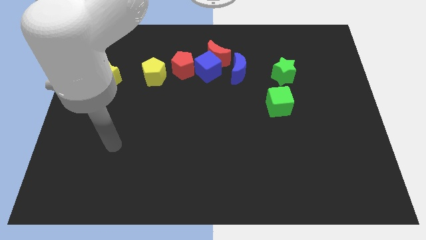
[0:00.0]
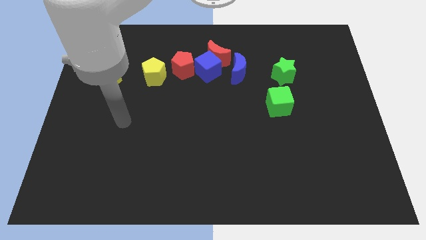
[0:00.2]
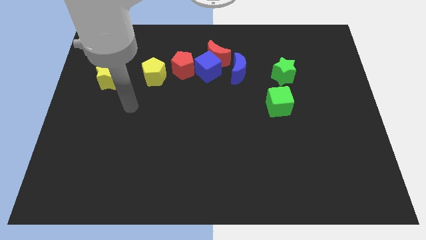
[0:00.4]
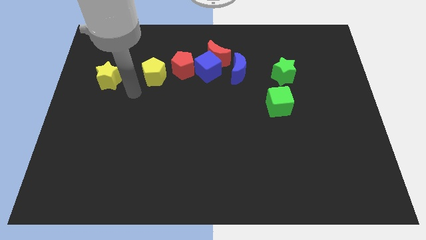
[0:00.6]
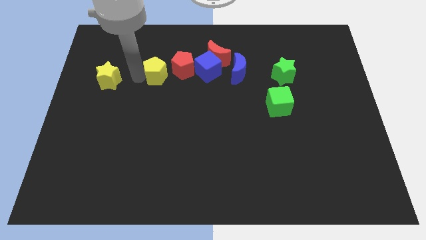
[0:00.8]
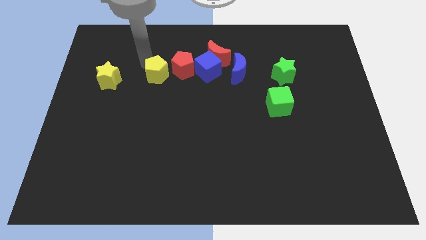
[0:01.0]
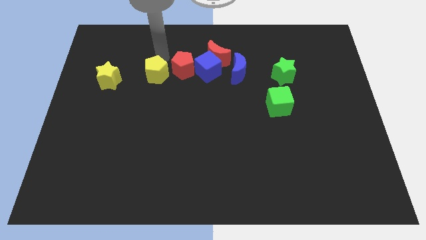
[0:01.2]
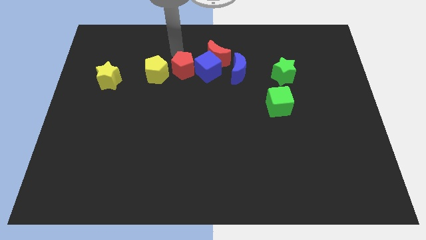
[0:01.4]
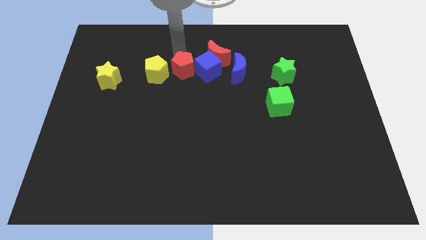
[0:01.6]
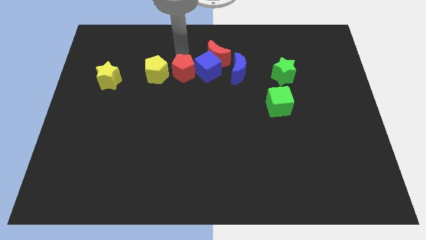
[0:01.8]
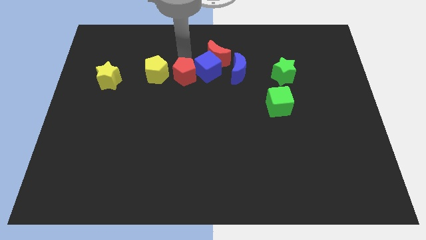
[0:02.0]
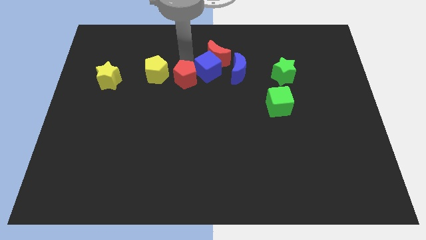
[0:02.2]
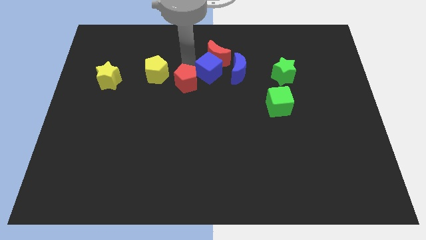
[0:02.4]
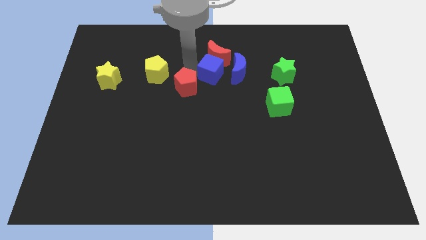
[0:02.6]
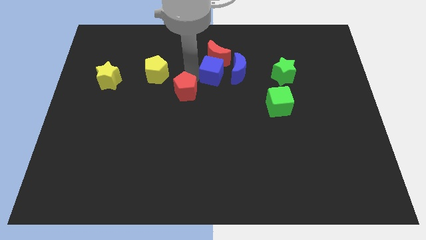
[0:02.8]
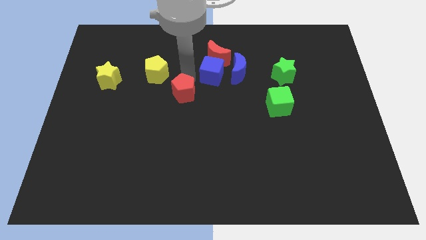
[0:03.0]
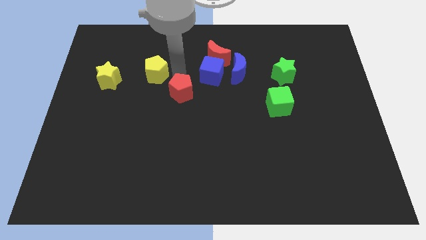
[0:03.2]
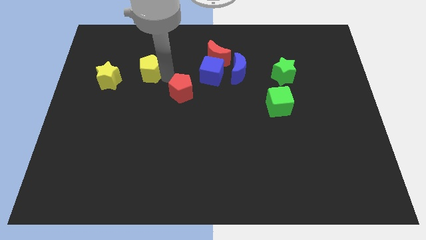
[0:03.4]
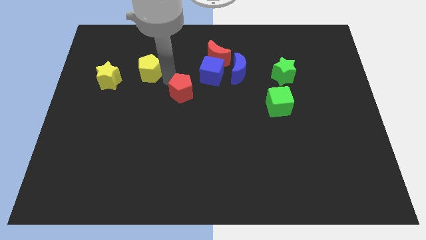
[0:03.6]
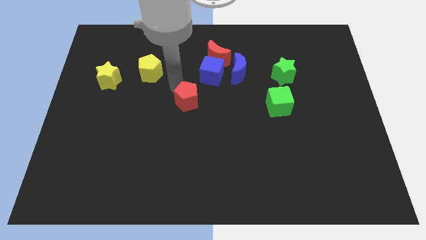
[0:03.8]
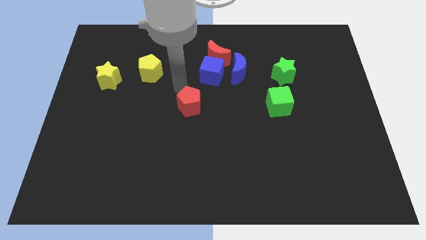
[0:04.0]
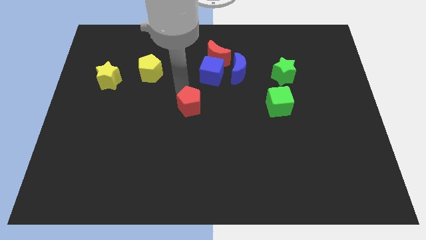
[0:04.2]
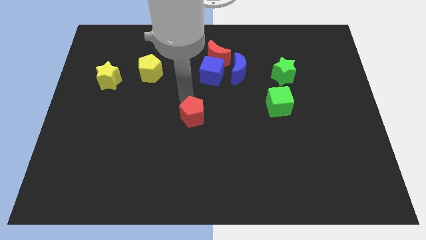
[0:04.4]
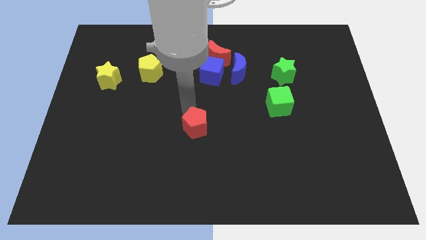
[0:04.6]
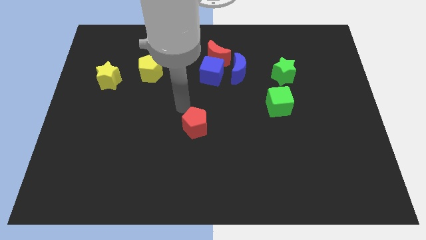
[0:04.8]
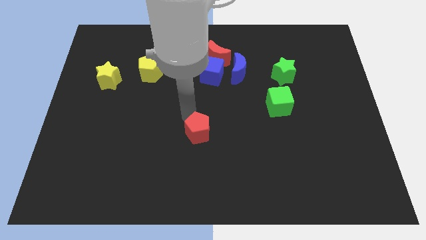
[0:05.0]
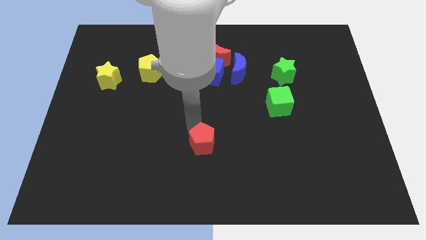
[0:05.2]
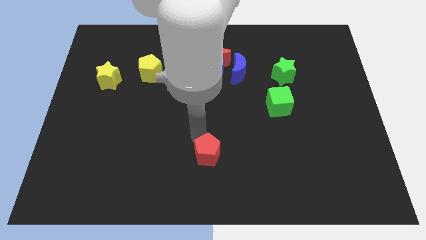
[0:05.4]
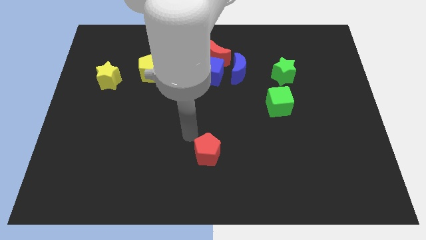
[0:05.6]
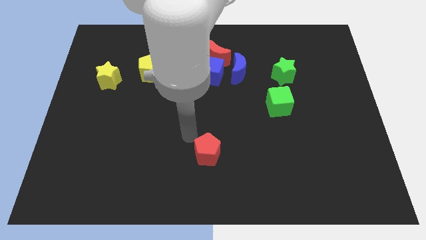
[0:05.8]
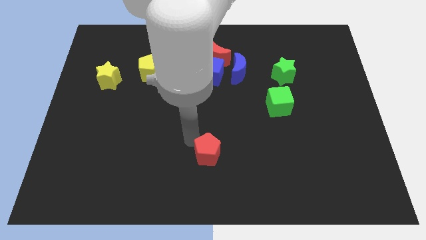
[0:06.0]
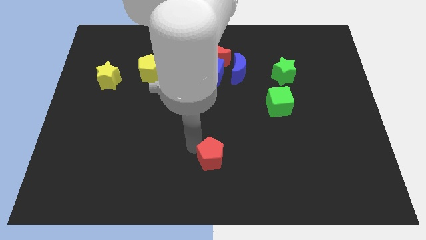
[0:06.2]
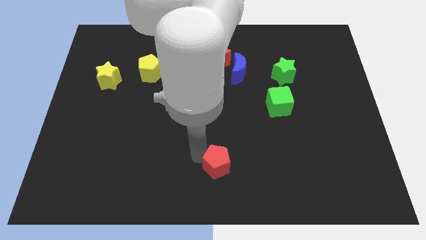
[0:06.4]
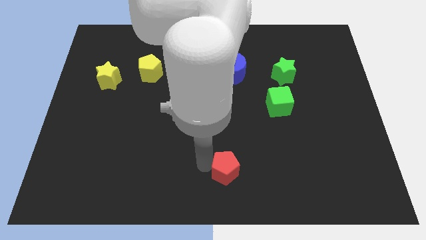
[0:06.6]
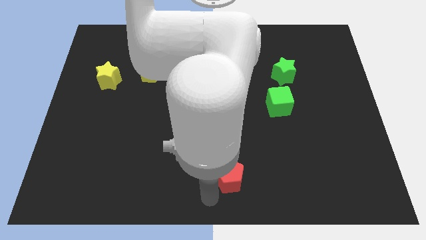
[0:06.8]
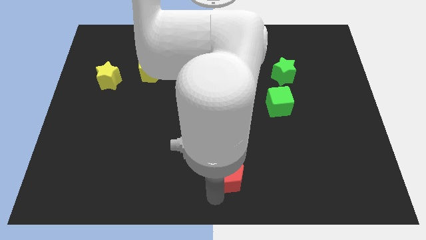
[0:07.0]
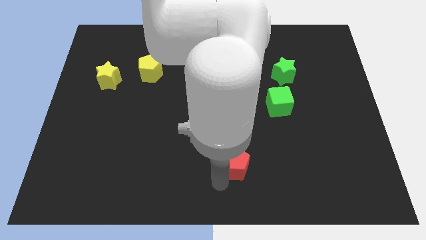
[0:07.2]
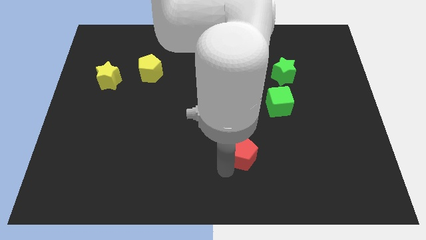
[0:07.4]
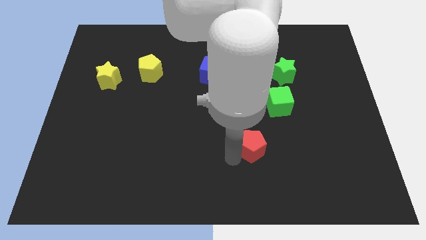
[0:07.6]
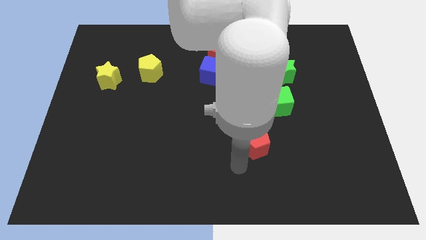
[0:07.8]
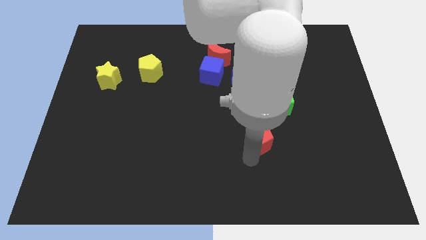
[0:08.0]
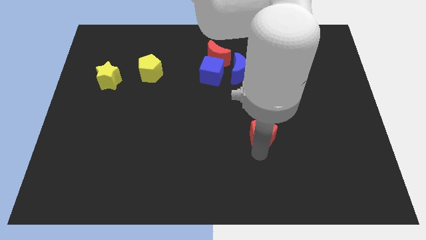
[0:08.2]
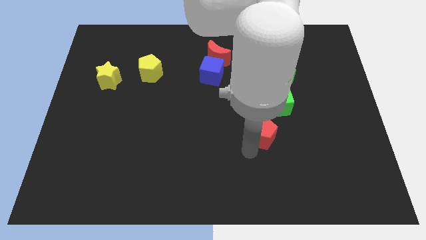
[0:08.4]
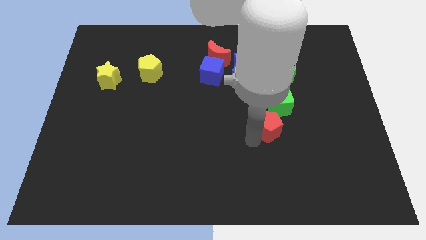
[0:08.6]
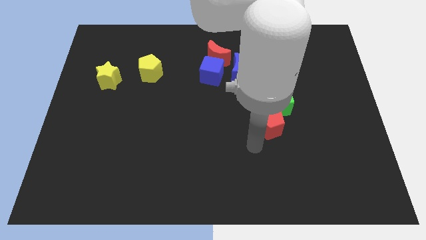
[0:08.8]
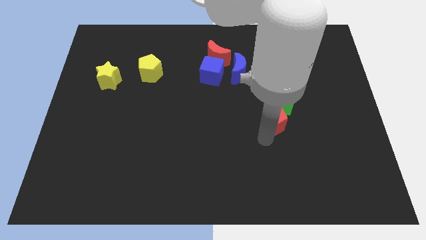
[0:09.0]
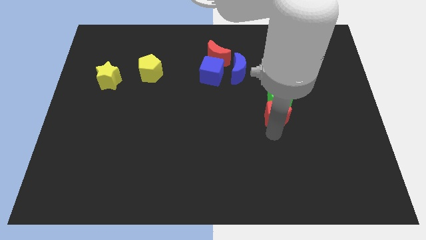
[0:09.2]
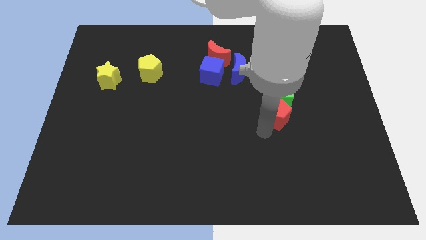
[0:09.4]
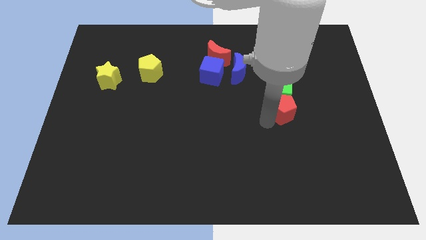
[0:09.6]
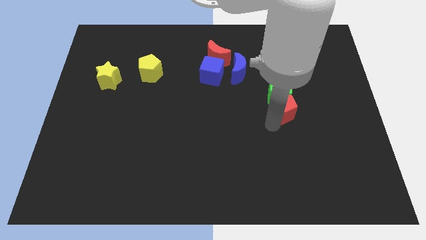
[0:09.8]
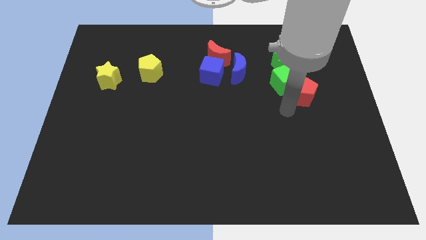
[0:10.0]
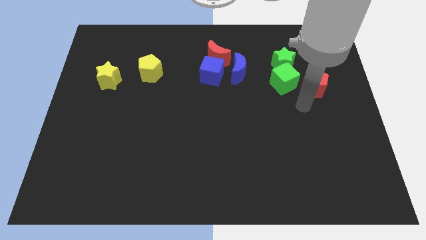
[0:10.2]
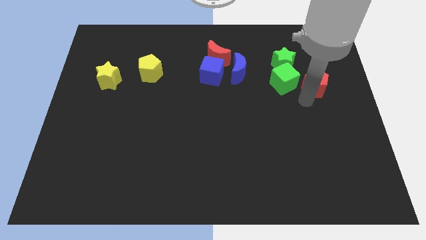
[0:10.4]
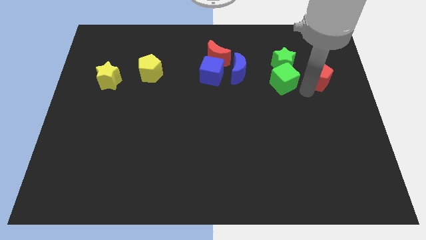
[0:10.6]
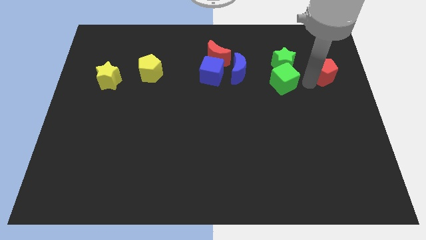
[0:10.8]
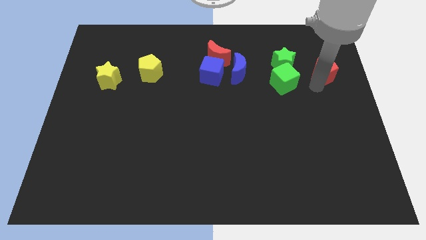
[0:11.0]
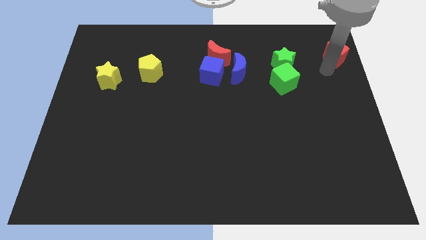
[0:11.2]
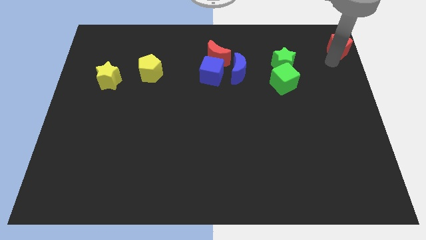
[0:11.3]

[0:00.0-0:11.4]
slide the red pentagon to the top right
